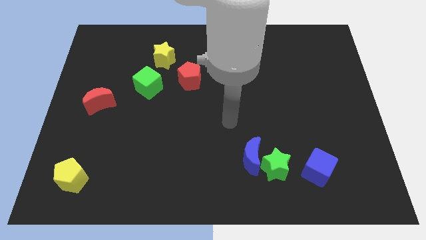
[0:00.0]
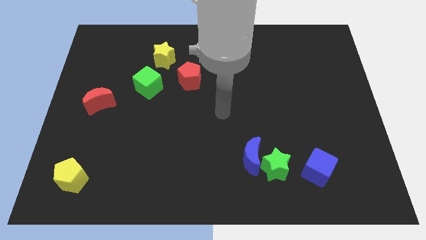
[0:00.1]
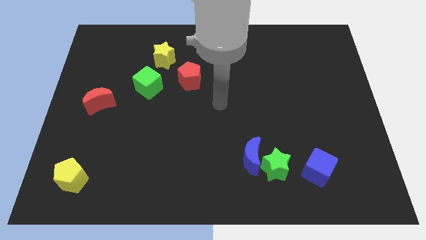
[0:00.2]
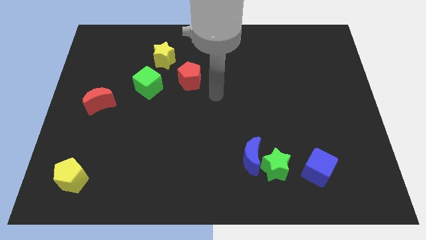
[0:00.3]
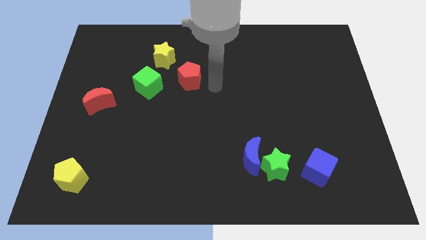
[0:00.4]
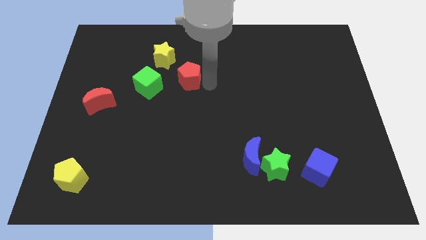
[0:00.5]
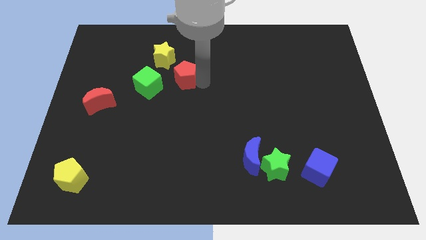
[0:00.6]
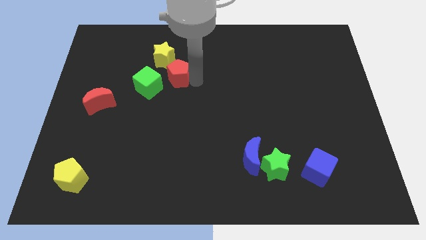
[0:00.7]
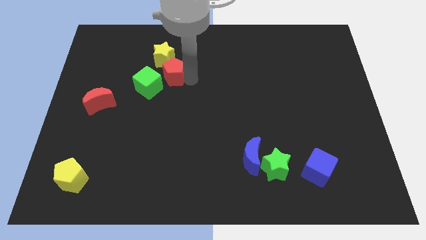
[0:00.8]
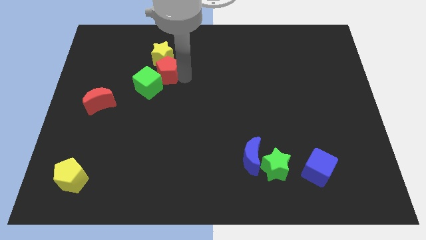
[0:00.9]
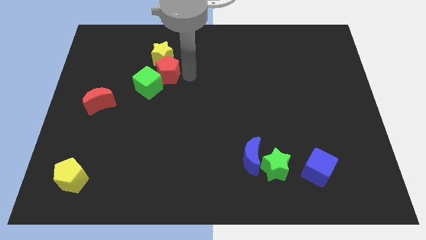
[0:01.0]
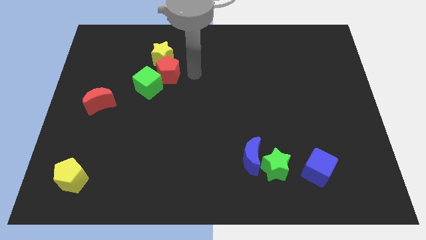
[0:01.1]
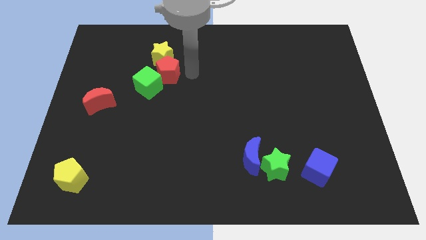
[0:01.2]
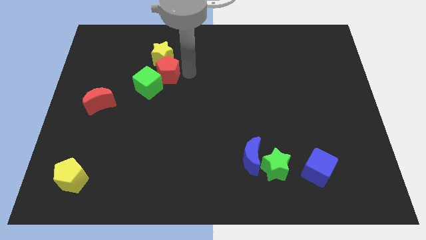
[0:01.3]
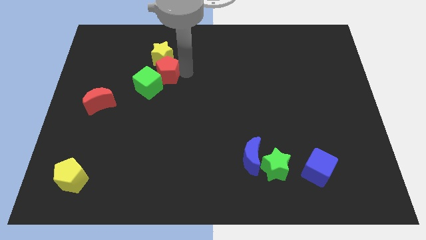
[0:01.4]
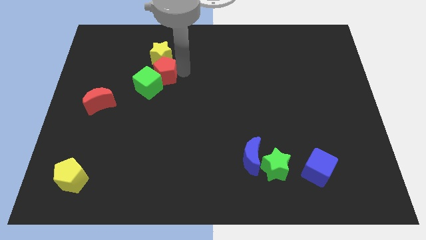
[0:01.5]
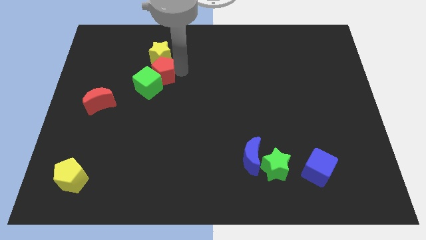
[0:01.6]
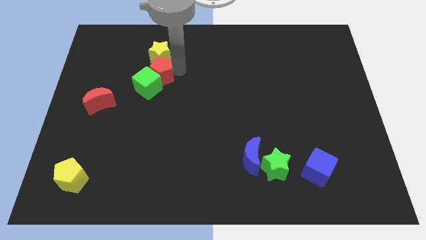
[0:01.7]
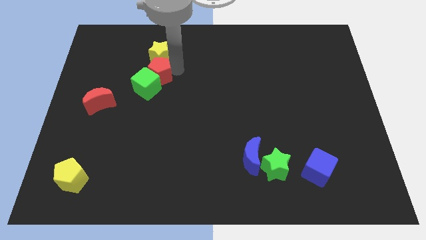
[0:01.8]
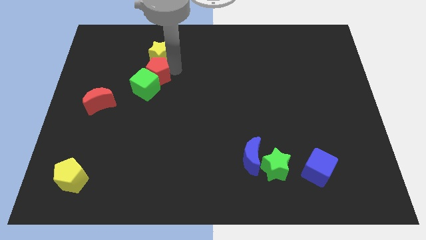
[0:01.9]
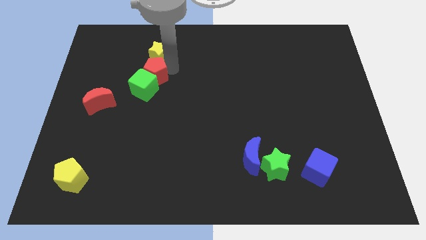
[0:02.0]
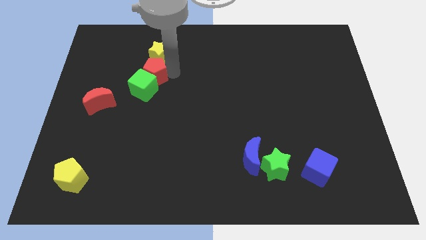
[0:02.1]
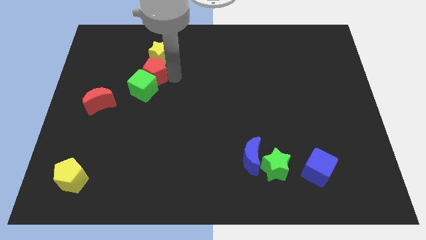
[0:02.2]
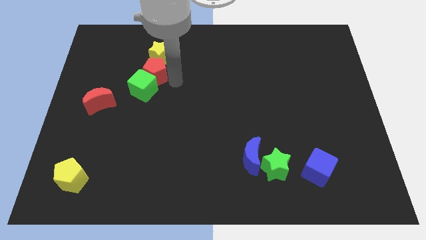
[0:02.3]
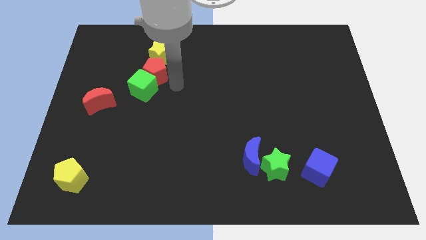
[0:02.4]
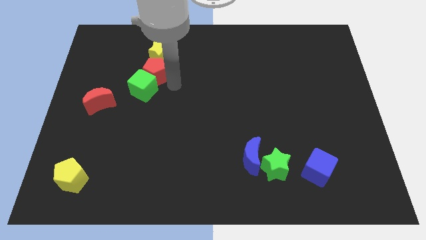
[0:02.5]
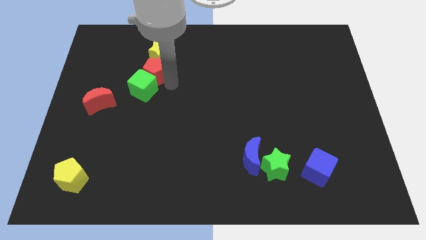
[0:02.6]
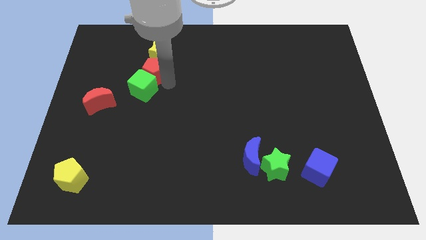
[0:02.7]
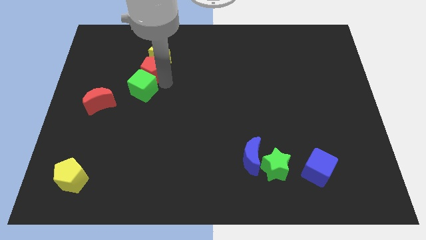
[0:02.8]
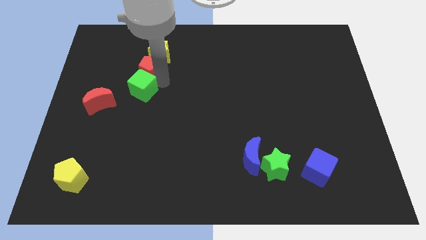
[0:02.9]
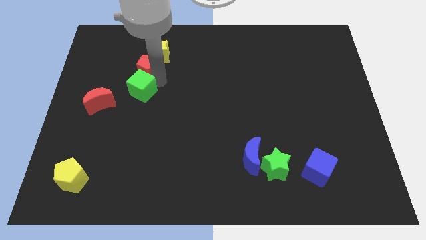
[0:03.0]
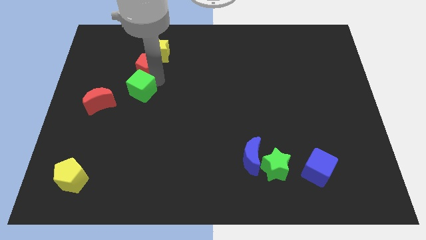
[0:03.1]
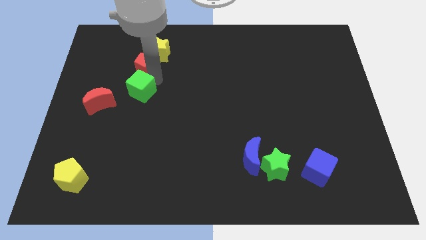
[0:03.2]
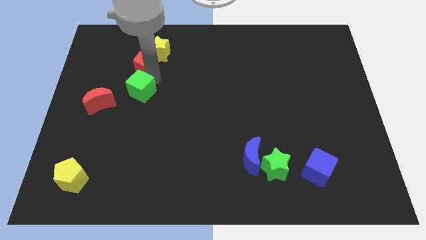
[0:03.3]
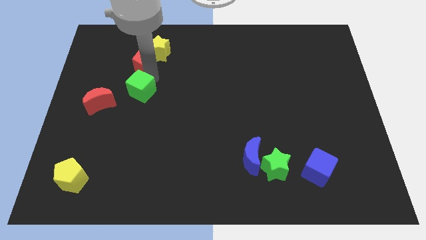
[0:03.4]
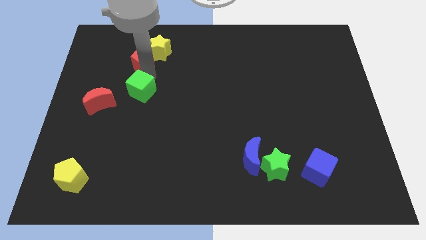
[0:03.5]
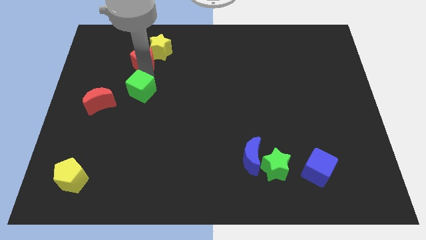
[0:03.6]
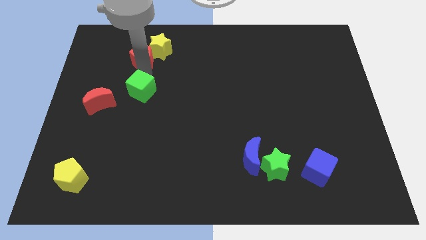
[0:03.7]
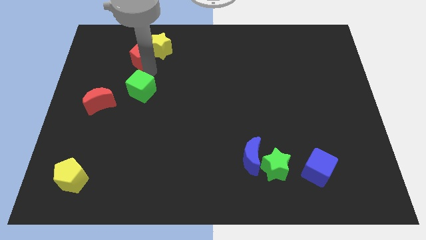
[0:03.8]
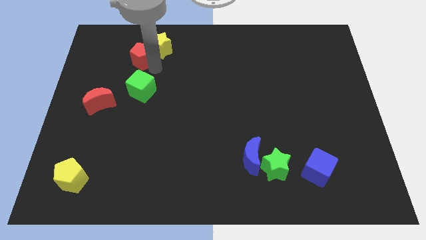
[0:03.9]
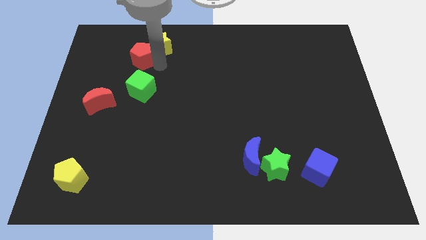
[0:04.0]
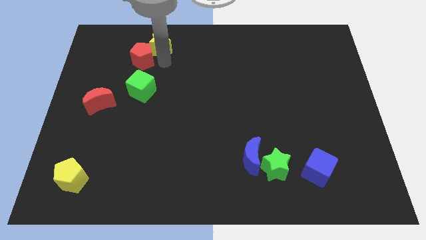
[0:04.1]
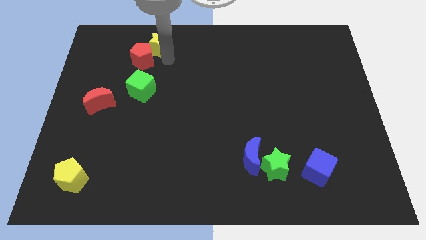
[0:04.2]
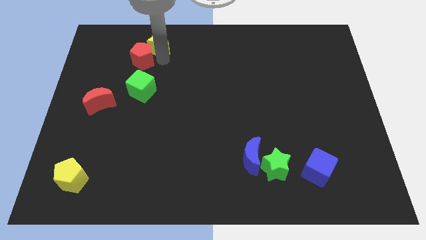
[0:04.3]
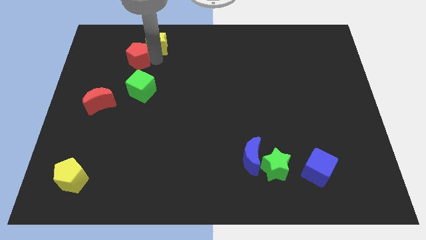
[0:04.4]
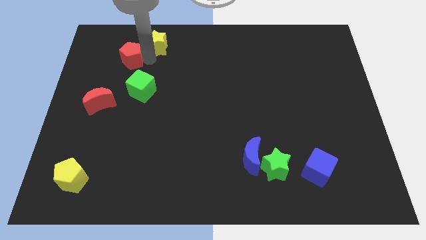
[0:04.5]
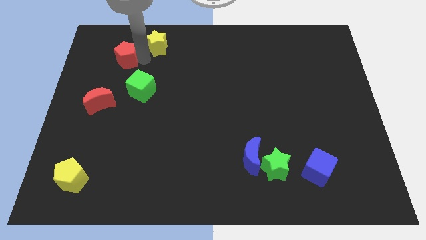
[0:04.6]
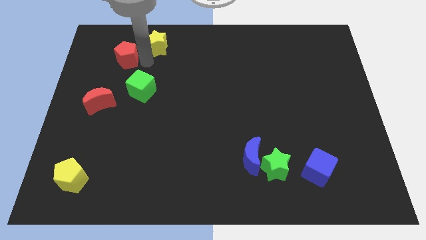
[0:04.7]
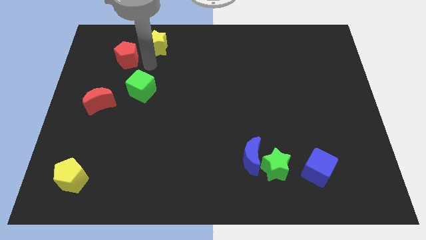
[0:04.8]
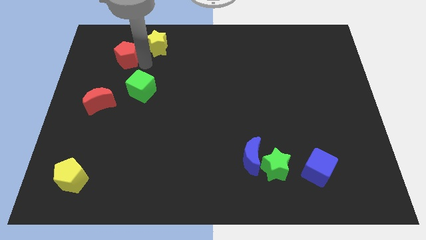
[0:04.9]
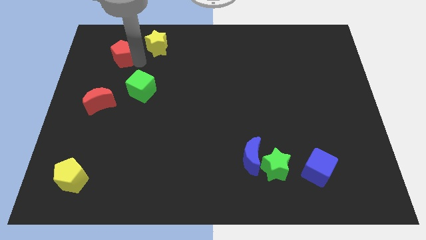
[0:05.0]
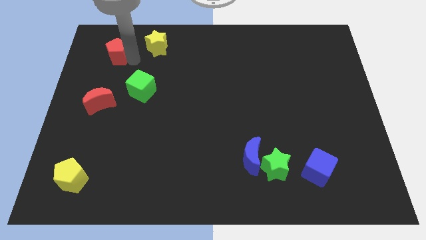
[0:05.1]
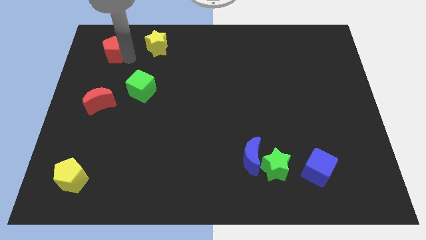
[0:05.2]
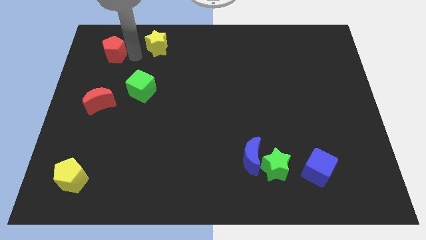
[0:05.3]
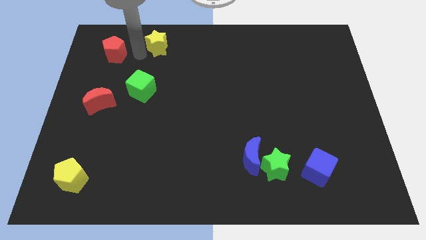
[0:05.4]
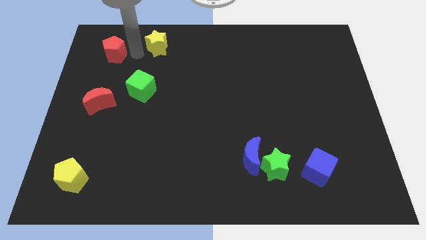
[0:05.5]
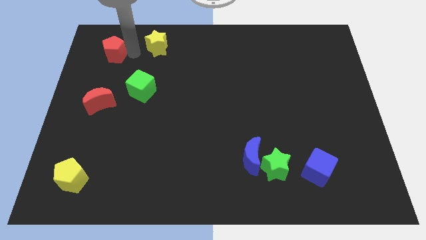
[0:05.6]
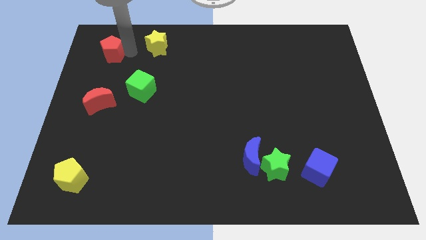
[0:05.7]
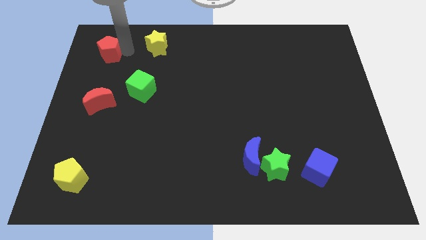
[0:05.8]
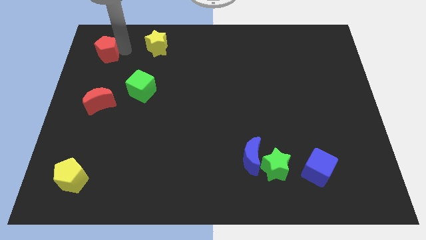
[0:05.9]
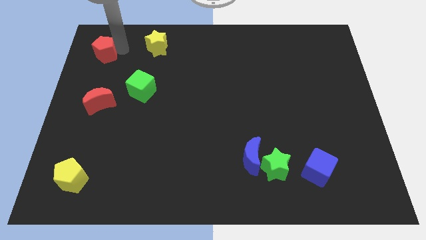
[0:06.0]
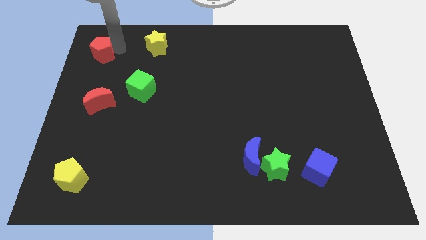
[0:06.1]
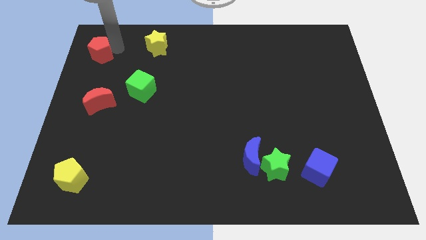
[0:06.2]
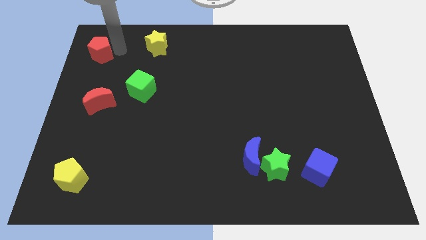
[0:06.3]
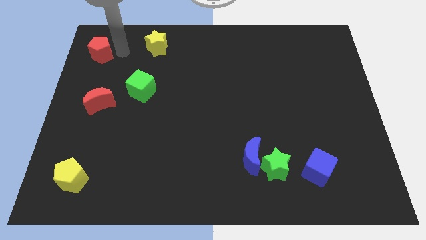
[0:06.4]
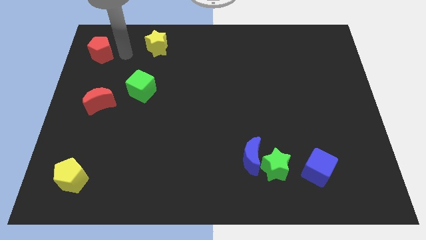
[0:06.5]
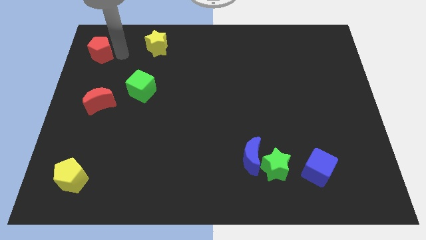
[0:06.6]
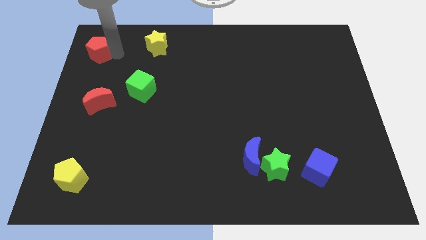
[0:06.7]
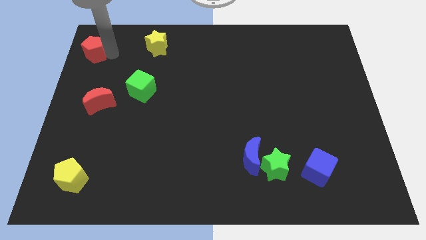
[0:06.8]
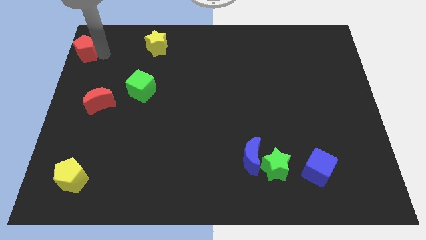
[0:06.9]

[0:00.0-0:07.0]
move the red pentagon to the top left of the board
